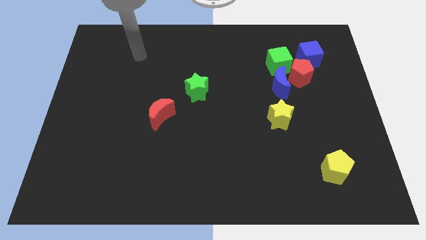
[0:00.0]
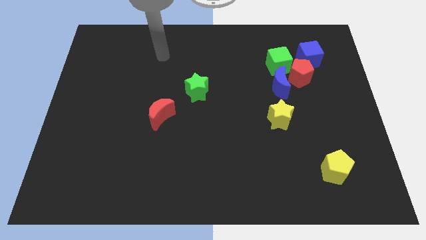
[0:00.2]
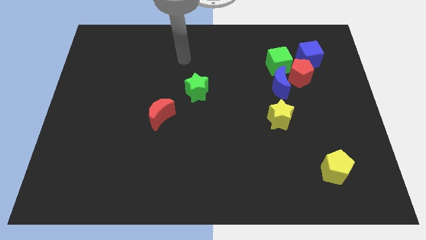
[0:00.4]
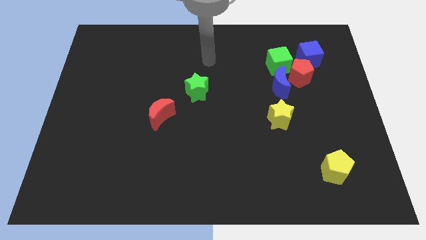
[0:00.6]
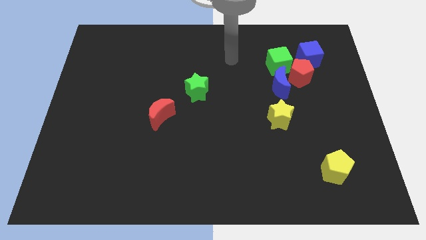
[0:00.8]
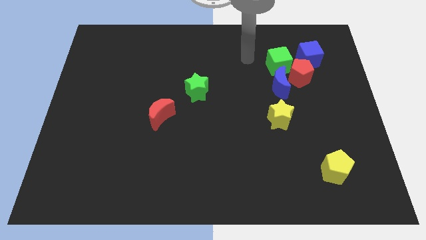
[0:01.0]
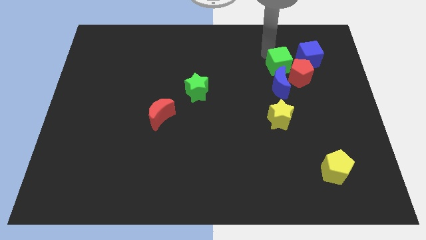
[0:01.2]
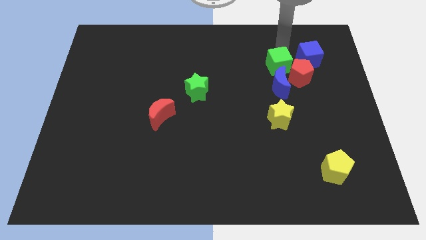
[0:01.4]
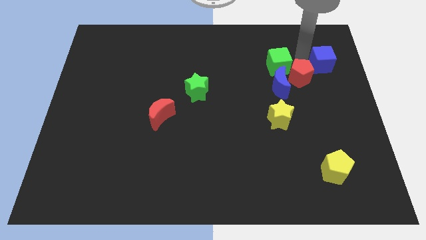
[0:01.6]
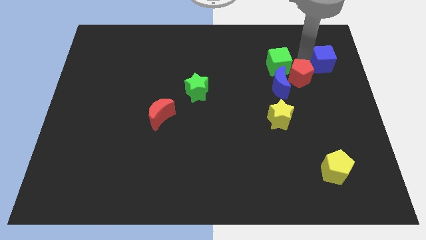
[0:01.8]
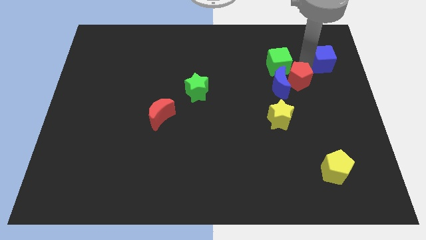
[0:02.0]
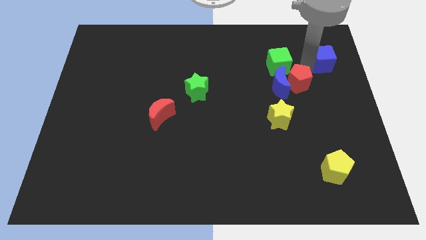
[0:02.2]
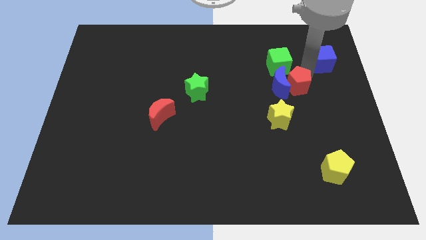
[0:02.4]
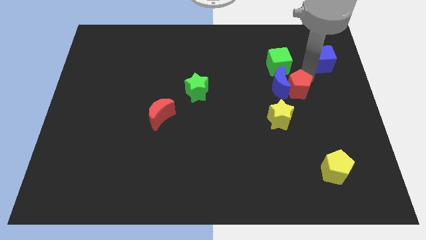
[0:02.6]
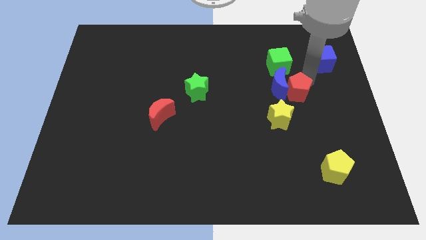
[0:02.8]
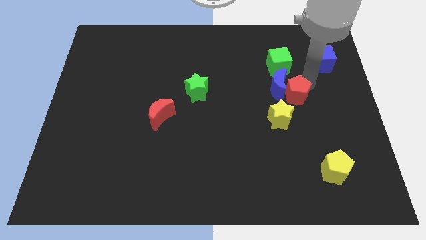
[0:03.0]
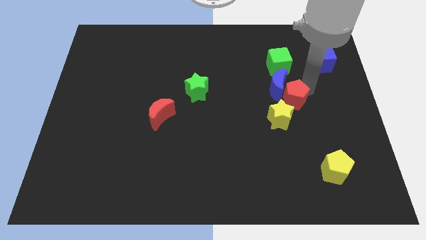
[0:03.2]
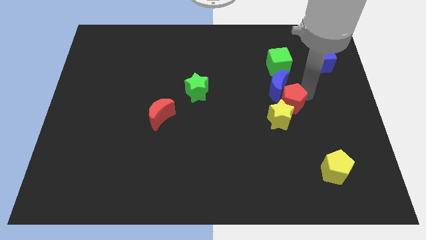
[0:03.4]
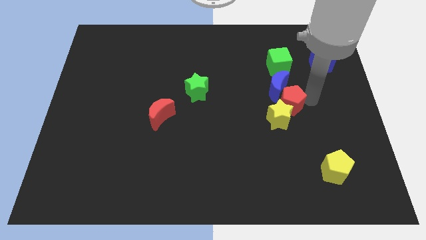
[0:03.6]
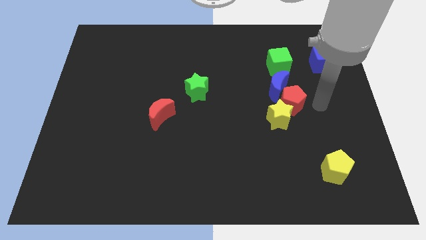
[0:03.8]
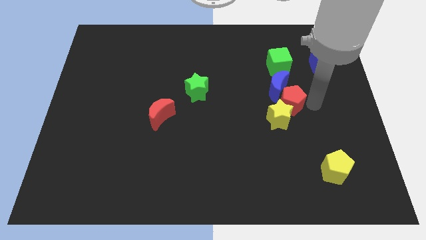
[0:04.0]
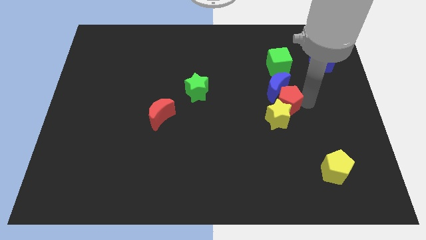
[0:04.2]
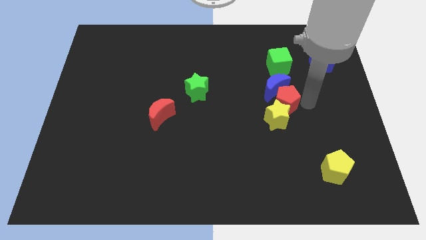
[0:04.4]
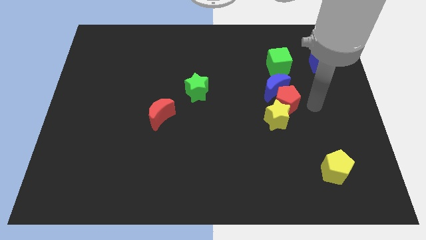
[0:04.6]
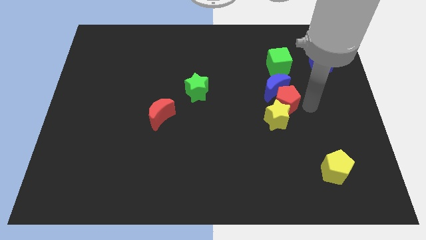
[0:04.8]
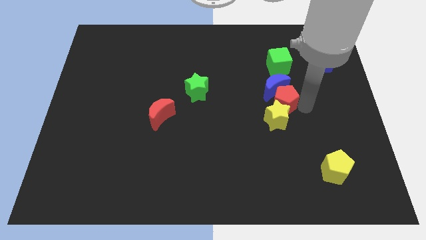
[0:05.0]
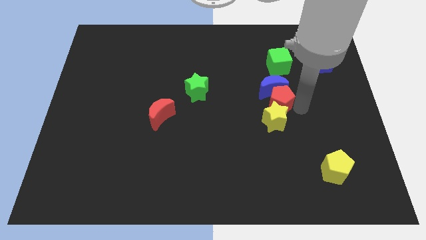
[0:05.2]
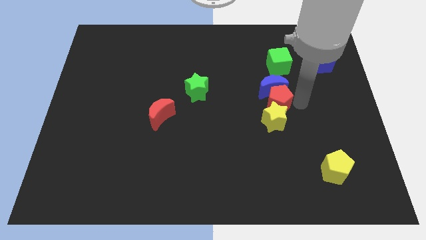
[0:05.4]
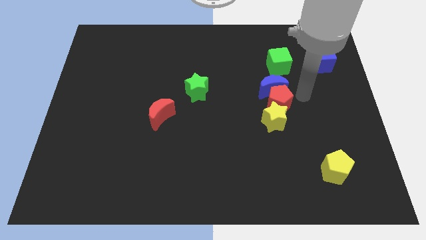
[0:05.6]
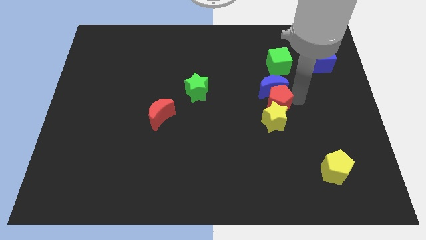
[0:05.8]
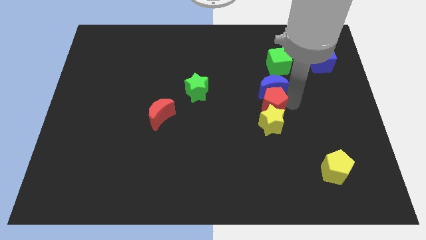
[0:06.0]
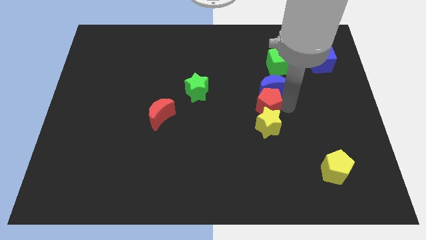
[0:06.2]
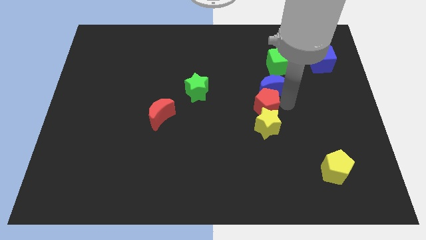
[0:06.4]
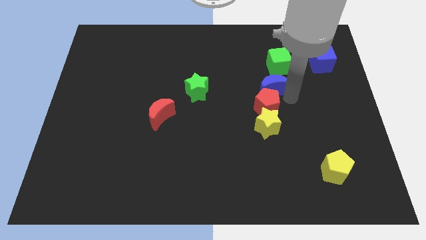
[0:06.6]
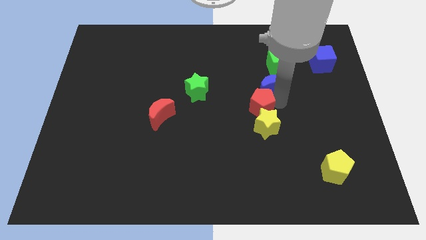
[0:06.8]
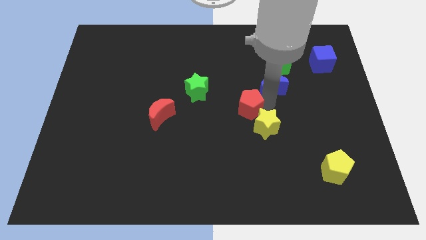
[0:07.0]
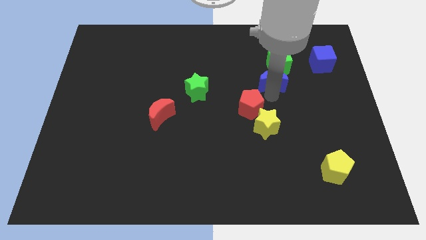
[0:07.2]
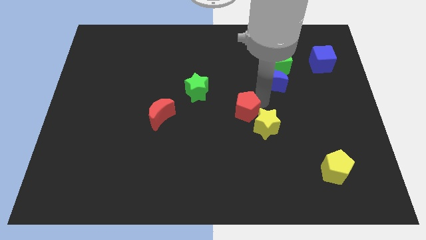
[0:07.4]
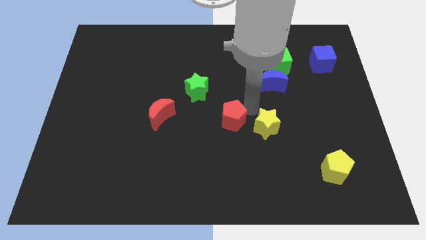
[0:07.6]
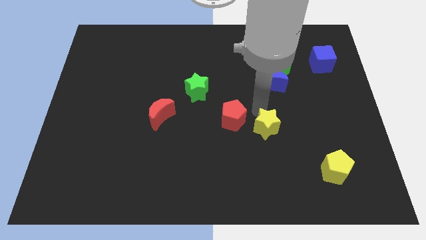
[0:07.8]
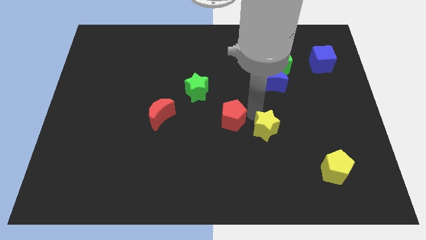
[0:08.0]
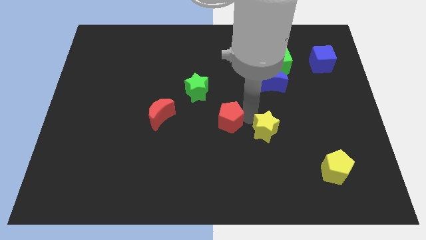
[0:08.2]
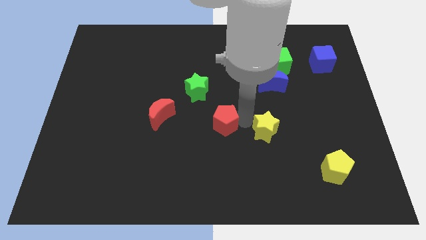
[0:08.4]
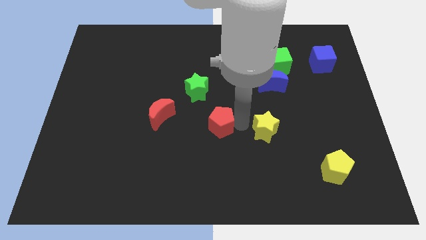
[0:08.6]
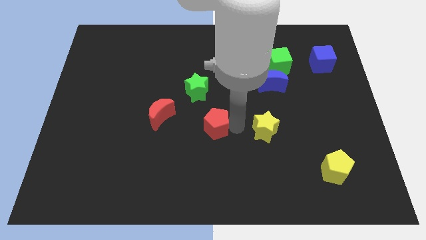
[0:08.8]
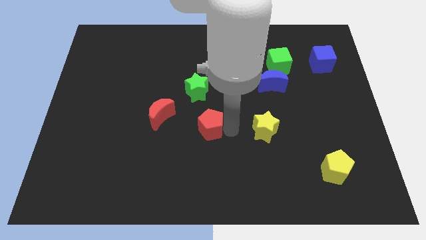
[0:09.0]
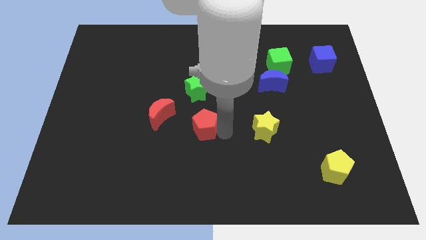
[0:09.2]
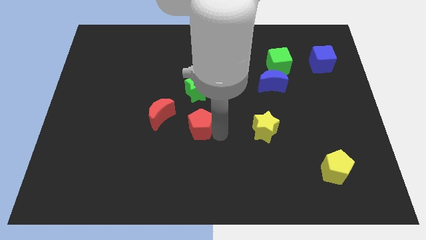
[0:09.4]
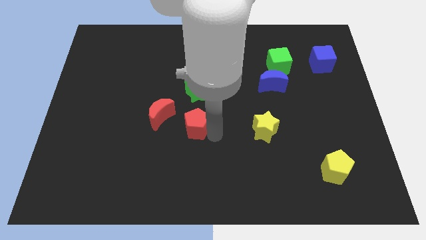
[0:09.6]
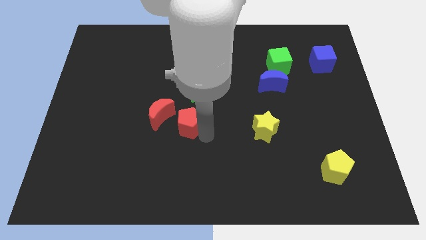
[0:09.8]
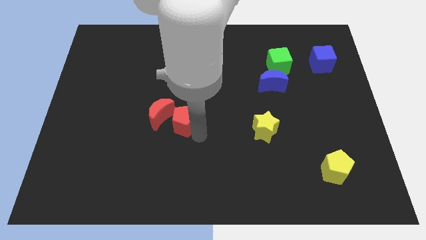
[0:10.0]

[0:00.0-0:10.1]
put the red pentagon to the red moon

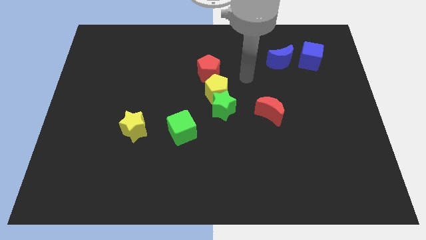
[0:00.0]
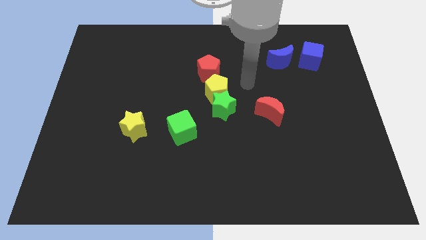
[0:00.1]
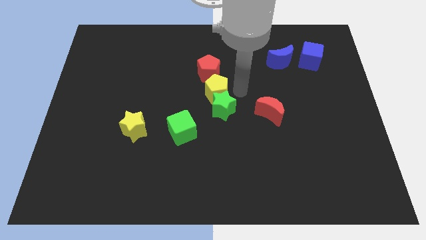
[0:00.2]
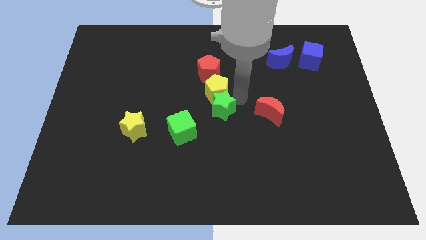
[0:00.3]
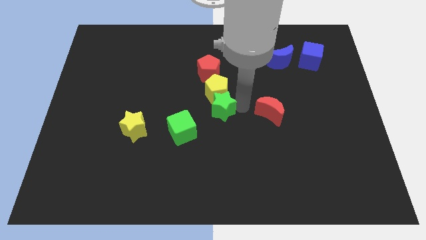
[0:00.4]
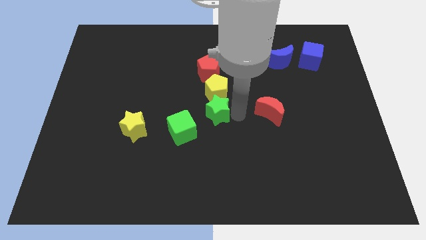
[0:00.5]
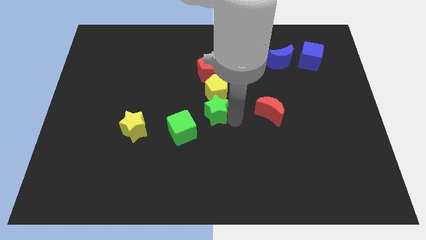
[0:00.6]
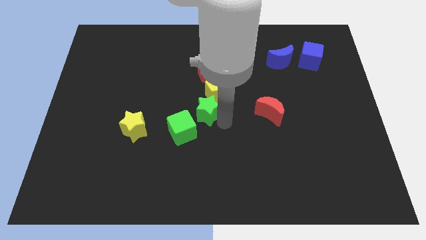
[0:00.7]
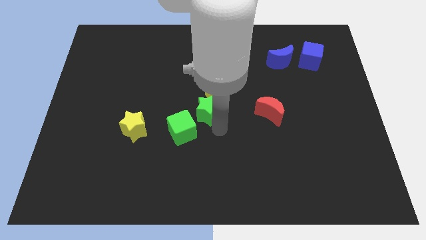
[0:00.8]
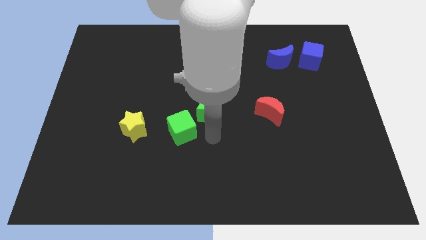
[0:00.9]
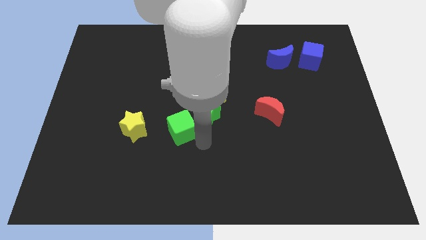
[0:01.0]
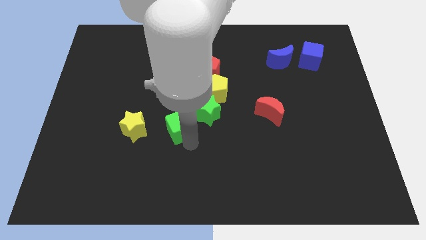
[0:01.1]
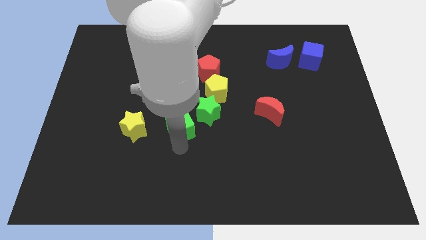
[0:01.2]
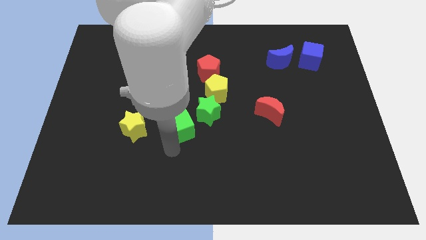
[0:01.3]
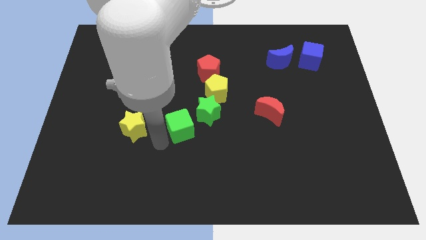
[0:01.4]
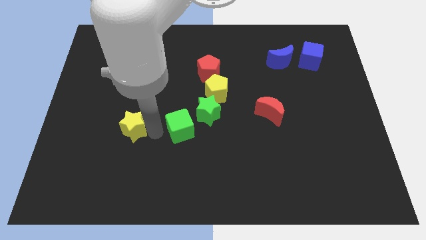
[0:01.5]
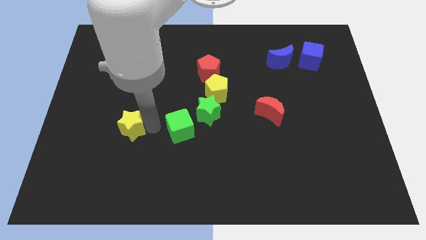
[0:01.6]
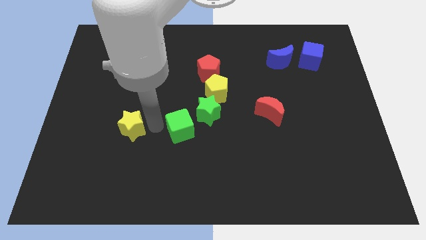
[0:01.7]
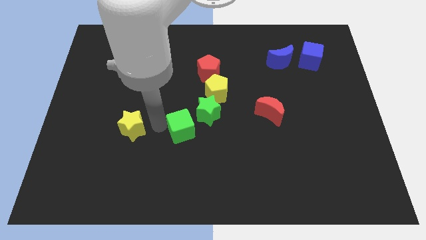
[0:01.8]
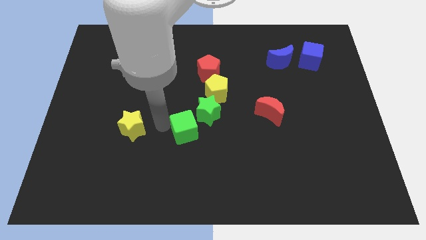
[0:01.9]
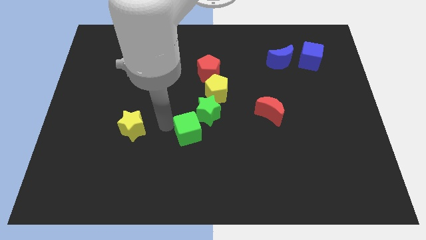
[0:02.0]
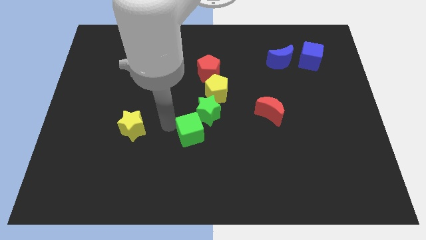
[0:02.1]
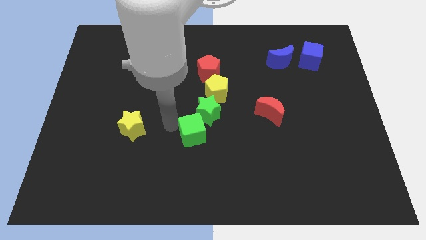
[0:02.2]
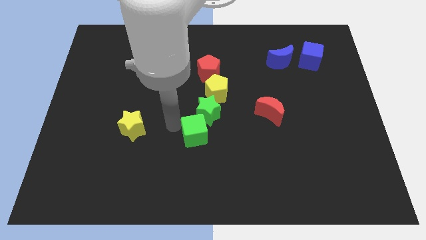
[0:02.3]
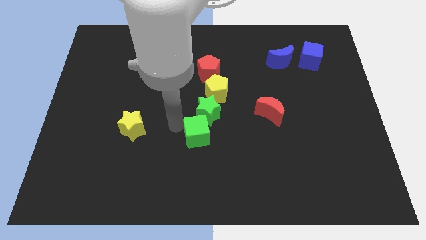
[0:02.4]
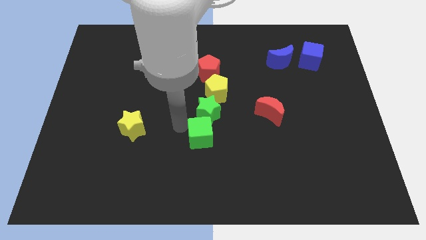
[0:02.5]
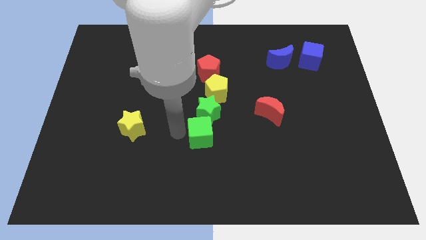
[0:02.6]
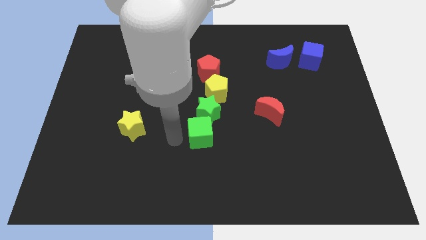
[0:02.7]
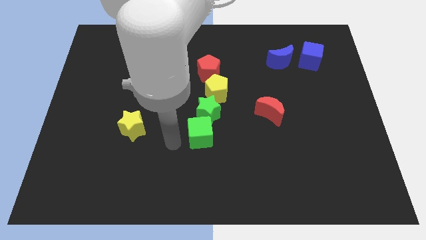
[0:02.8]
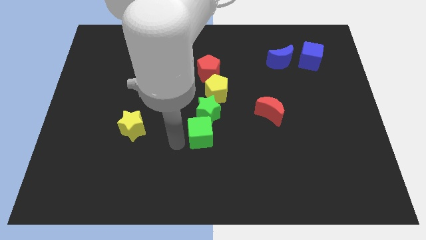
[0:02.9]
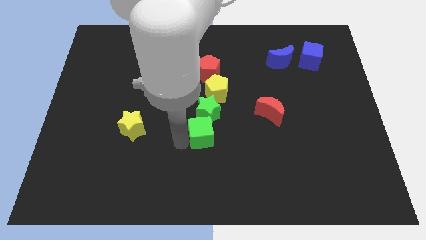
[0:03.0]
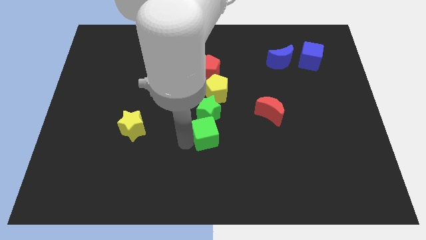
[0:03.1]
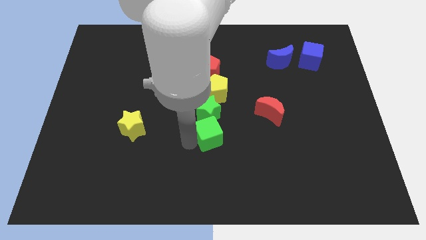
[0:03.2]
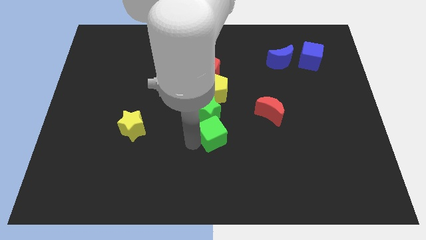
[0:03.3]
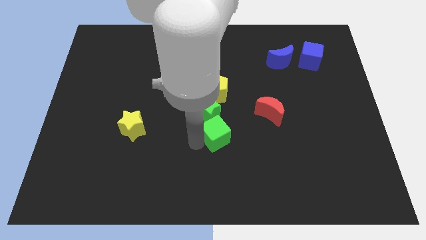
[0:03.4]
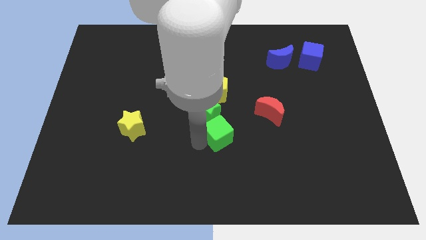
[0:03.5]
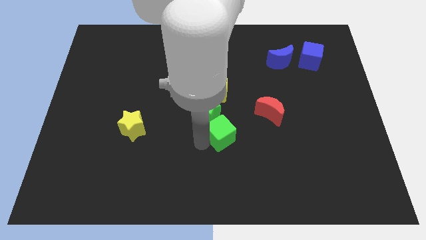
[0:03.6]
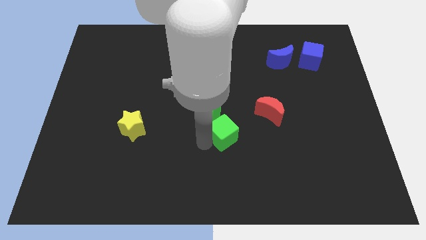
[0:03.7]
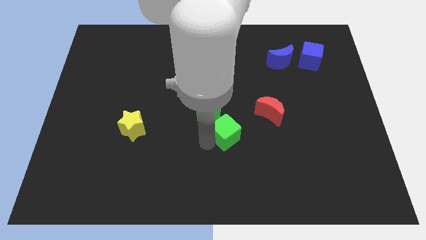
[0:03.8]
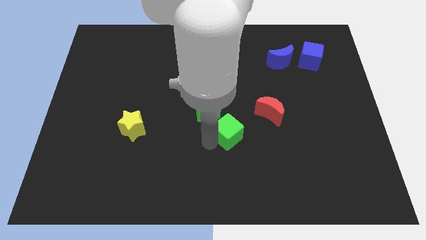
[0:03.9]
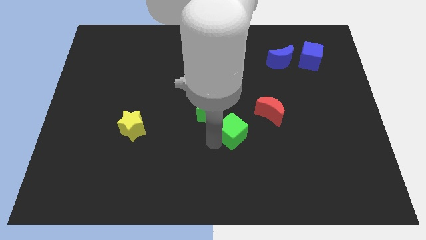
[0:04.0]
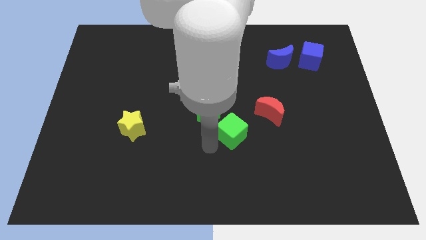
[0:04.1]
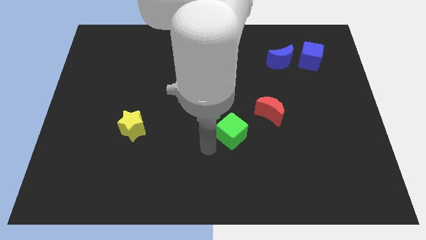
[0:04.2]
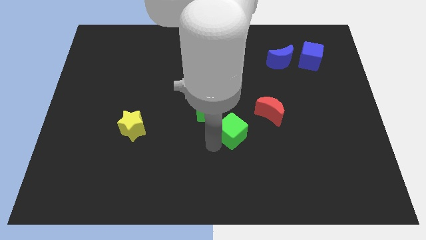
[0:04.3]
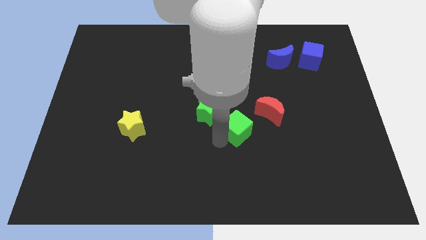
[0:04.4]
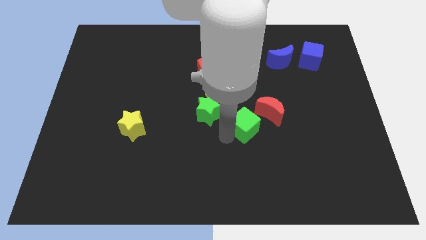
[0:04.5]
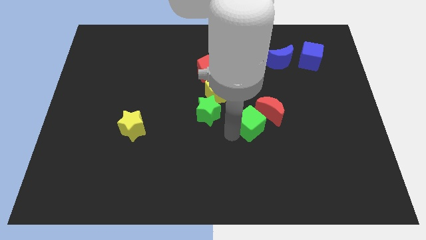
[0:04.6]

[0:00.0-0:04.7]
move the green cube close to the red moon
